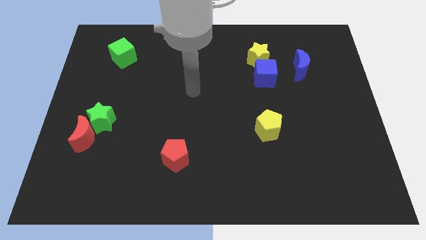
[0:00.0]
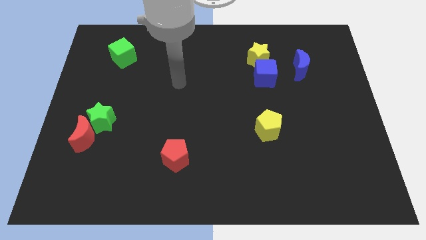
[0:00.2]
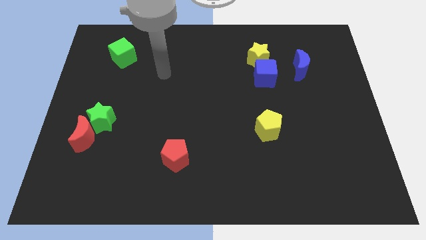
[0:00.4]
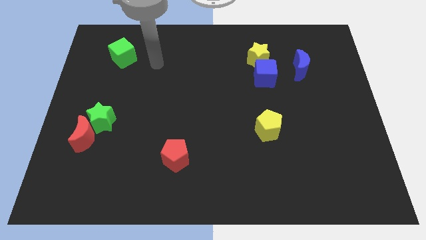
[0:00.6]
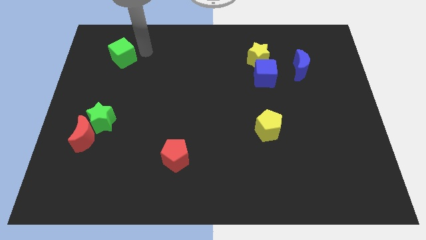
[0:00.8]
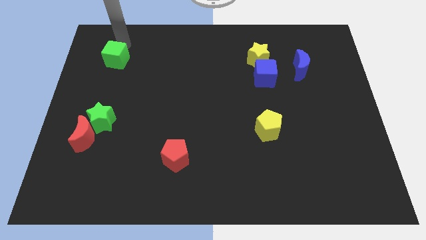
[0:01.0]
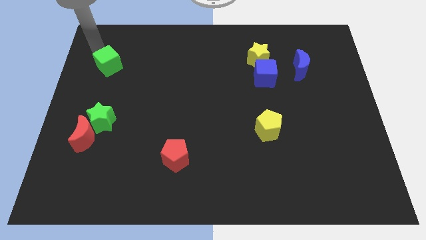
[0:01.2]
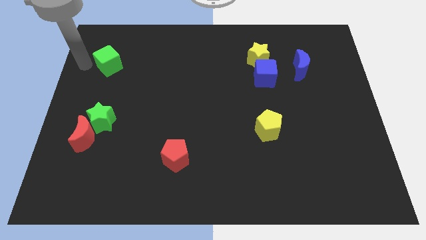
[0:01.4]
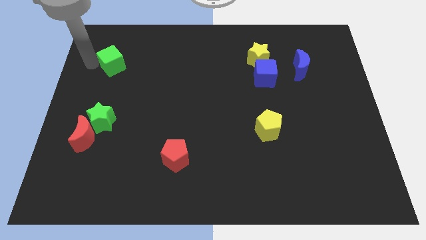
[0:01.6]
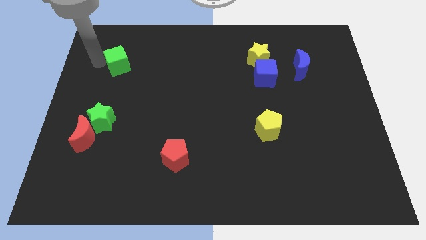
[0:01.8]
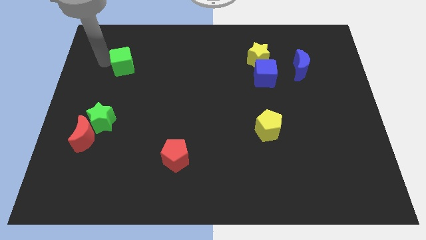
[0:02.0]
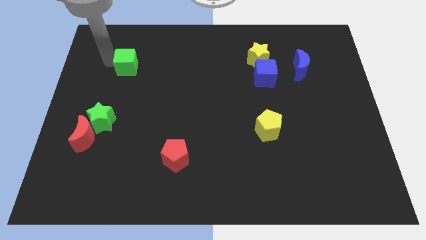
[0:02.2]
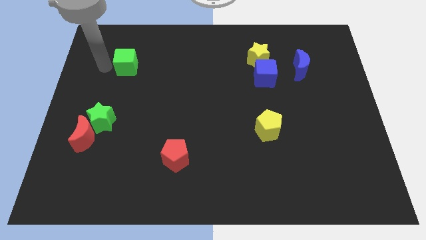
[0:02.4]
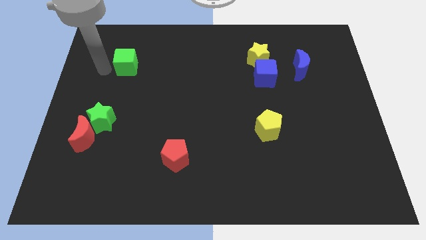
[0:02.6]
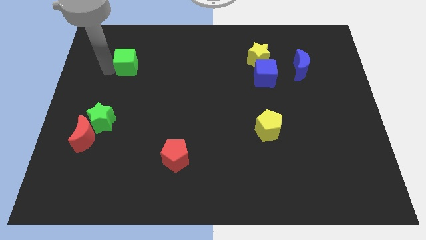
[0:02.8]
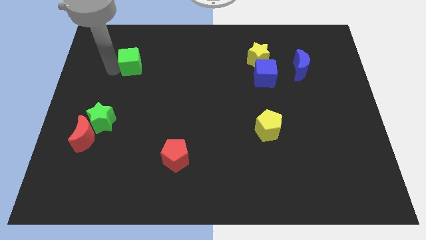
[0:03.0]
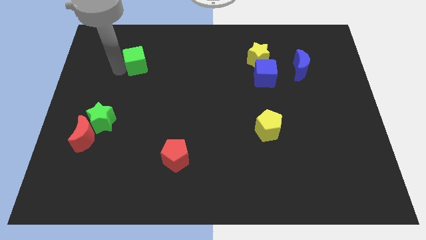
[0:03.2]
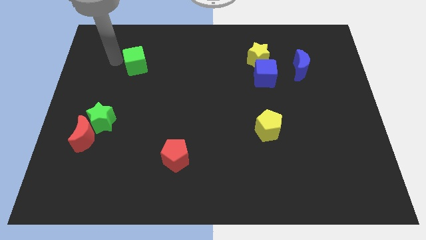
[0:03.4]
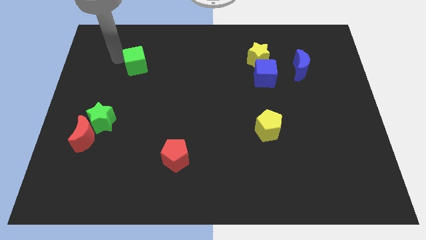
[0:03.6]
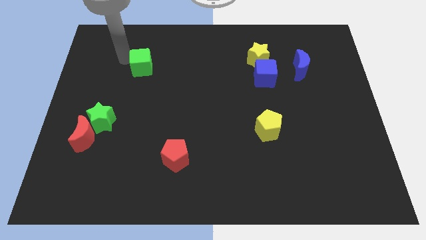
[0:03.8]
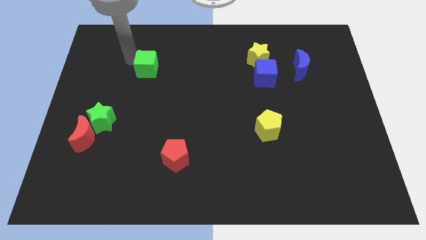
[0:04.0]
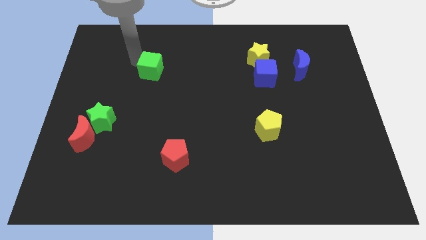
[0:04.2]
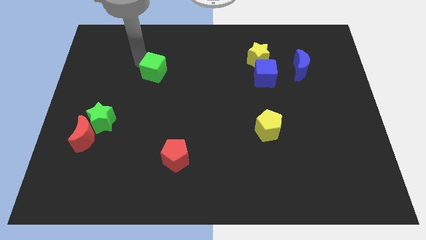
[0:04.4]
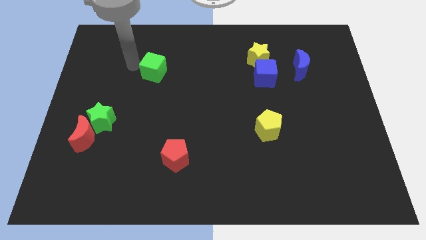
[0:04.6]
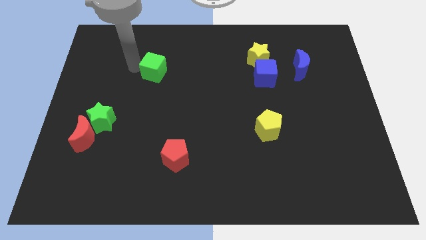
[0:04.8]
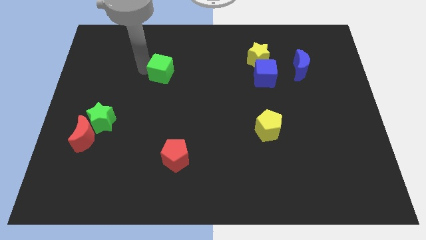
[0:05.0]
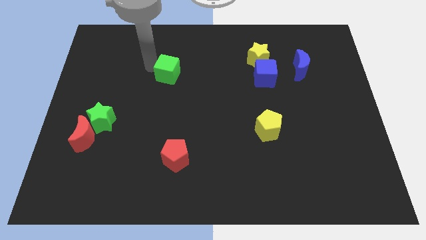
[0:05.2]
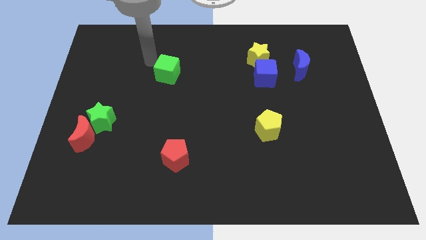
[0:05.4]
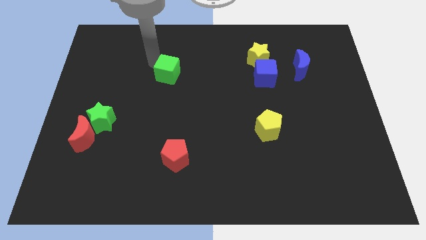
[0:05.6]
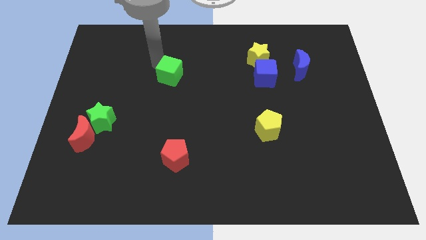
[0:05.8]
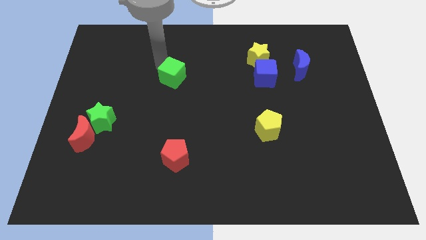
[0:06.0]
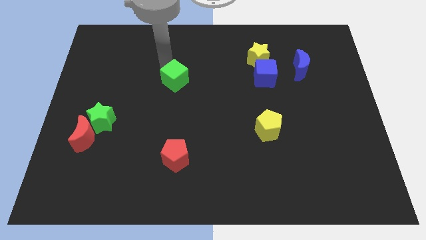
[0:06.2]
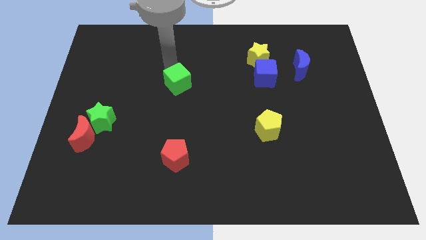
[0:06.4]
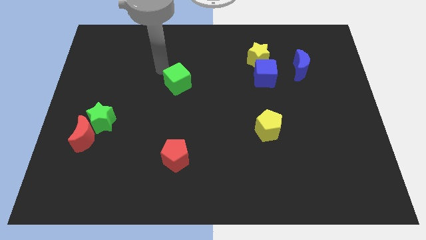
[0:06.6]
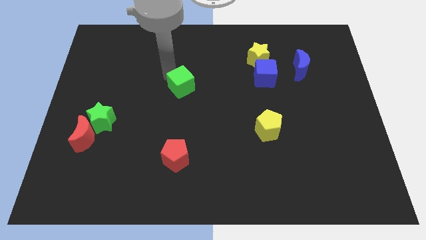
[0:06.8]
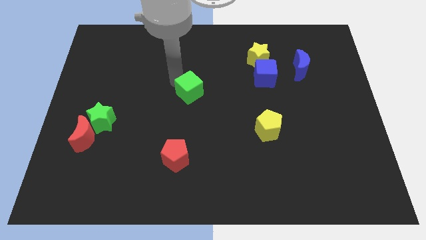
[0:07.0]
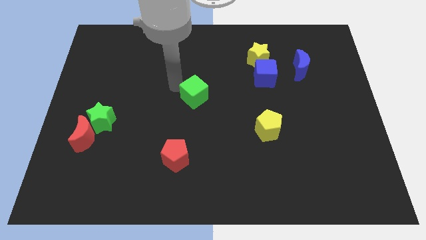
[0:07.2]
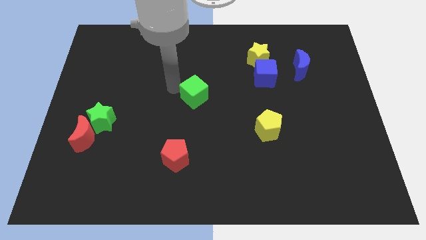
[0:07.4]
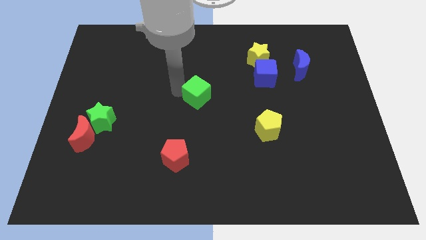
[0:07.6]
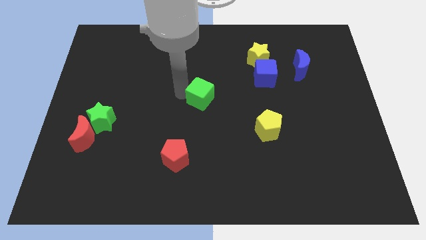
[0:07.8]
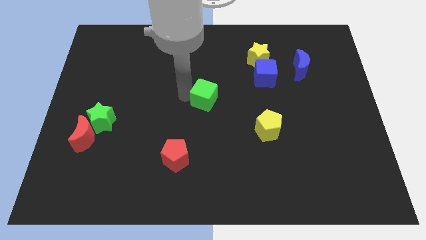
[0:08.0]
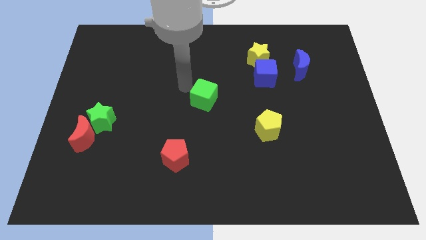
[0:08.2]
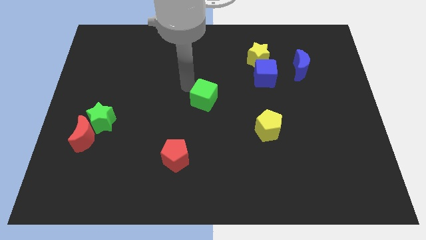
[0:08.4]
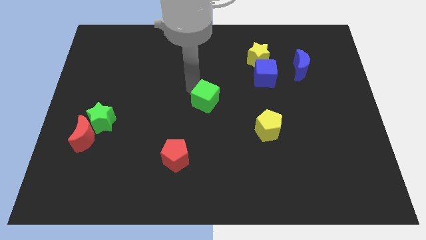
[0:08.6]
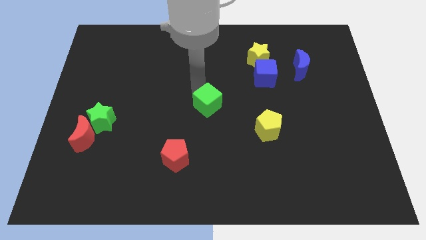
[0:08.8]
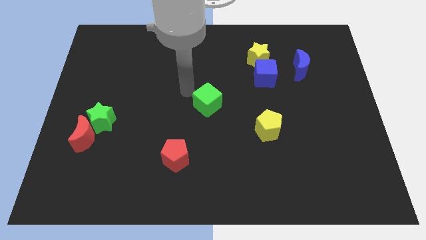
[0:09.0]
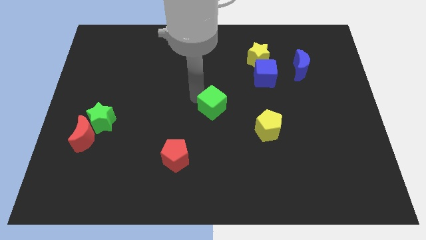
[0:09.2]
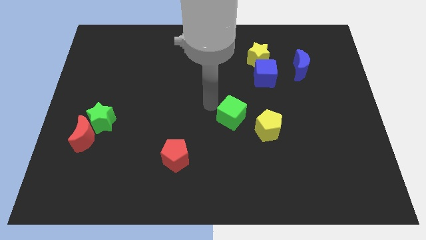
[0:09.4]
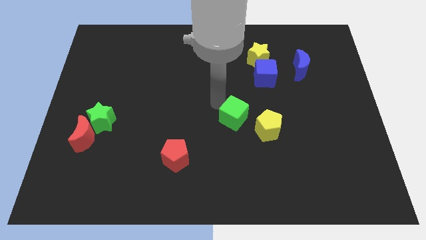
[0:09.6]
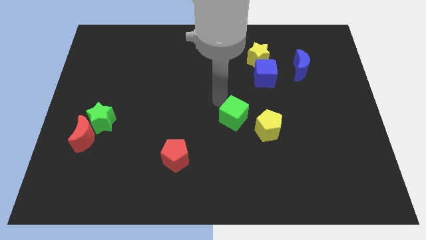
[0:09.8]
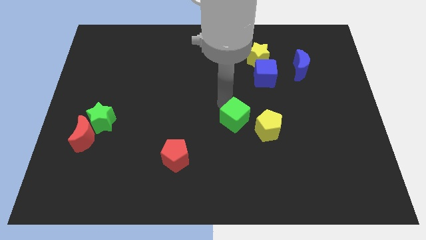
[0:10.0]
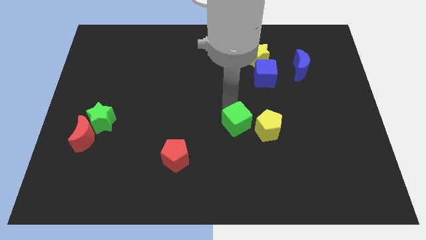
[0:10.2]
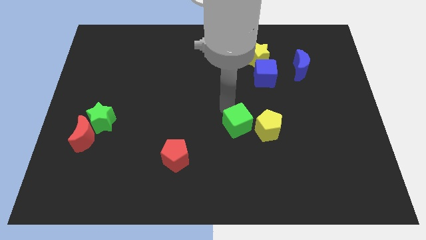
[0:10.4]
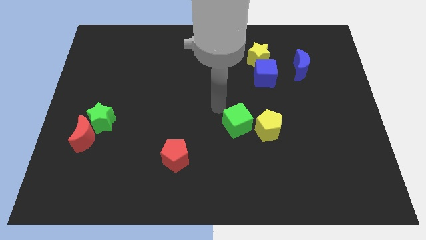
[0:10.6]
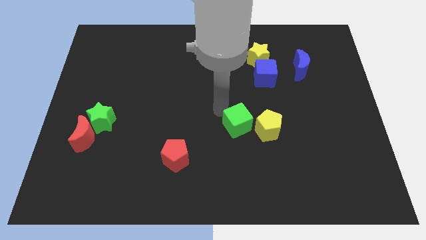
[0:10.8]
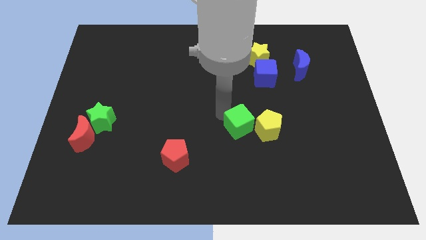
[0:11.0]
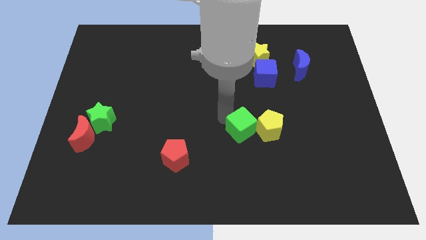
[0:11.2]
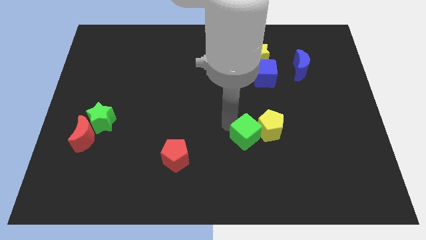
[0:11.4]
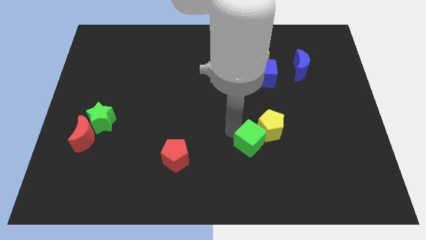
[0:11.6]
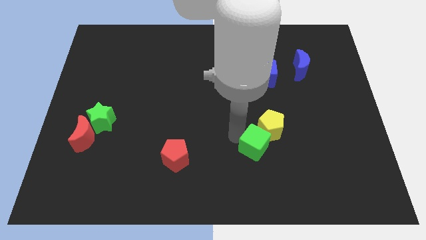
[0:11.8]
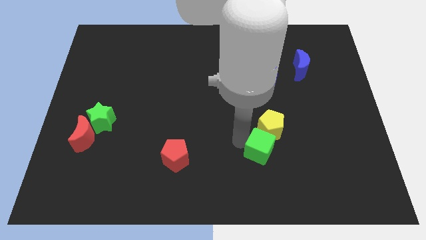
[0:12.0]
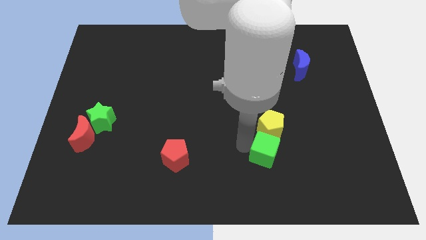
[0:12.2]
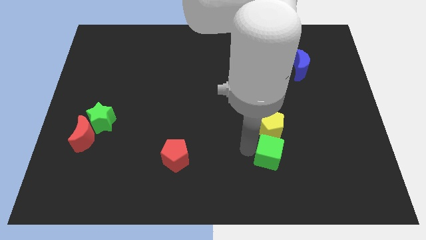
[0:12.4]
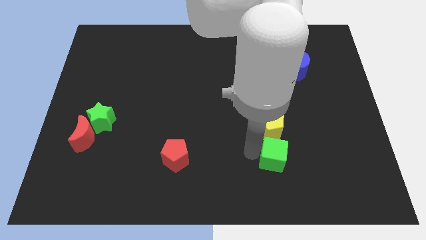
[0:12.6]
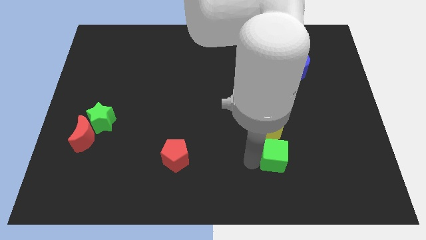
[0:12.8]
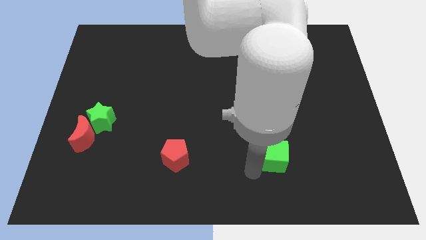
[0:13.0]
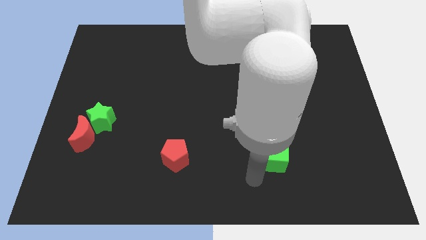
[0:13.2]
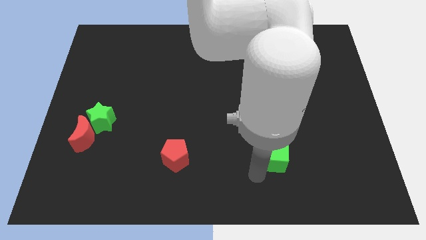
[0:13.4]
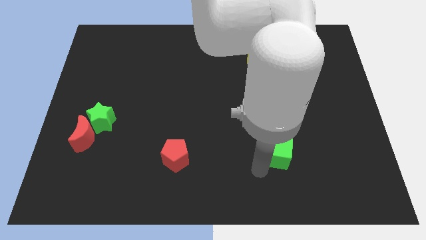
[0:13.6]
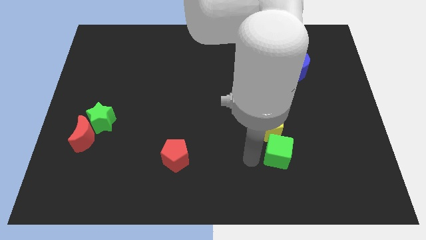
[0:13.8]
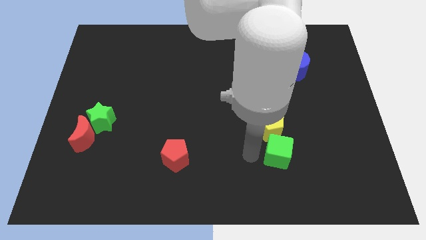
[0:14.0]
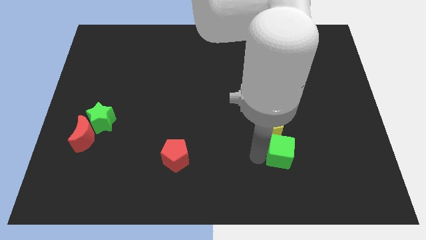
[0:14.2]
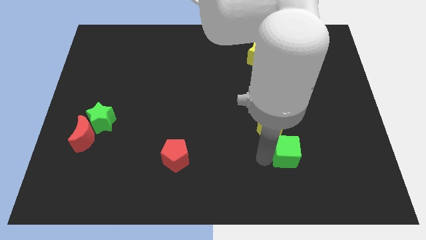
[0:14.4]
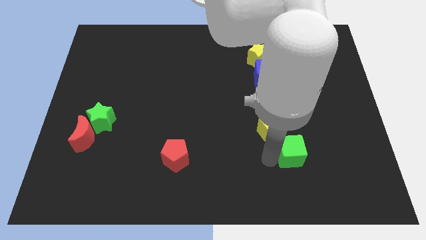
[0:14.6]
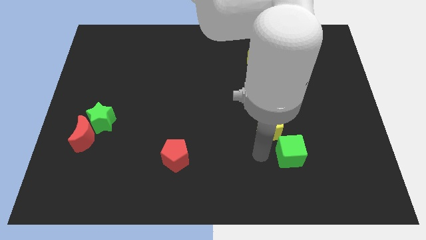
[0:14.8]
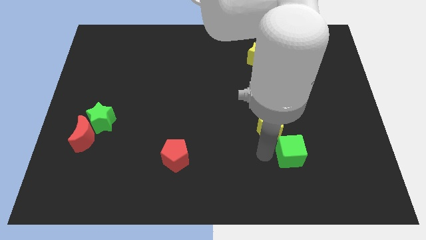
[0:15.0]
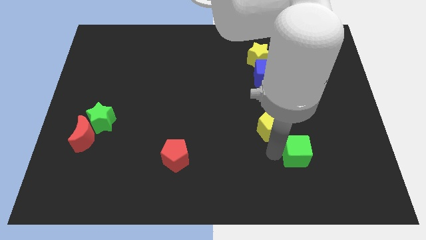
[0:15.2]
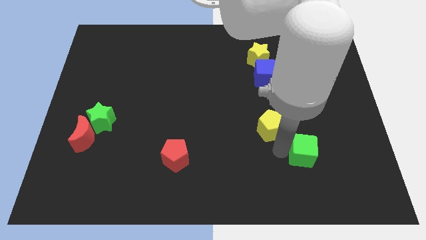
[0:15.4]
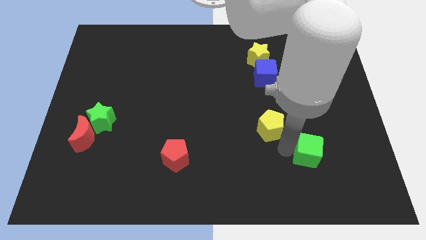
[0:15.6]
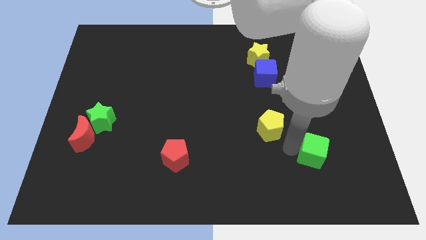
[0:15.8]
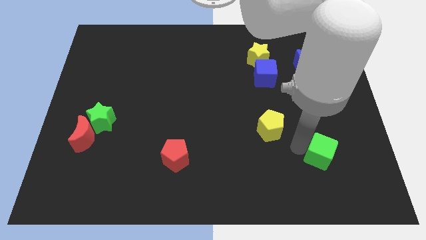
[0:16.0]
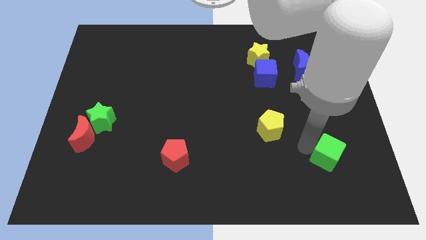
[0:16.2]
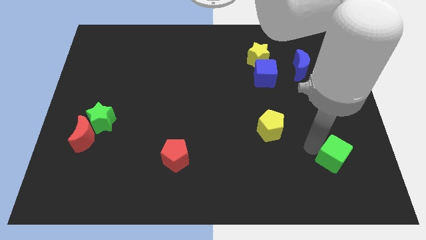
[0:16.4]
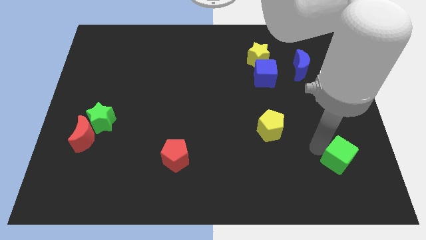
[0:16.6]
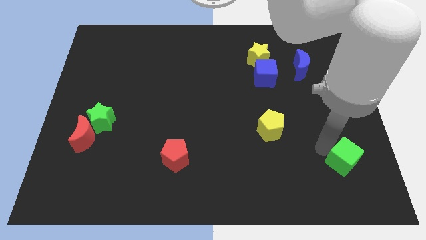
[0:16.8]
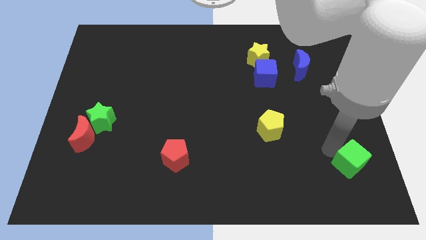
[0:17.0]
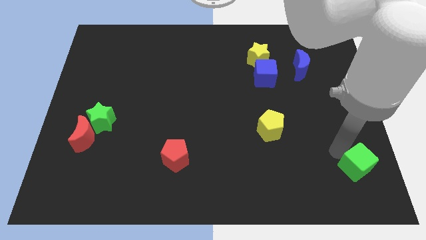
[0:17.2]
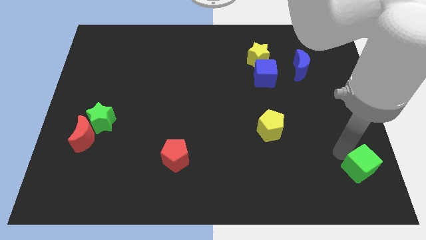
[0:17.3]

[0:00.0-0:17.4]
push the green cube to the bottom right of the board
